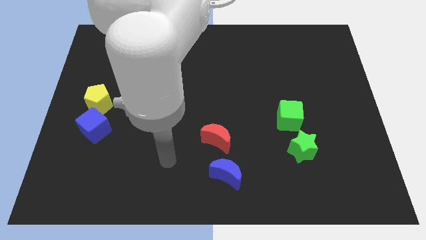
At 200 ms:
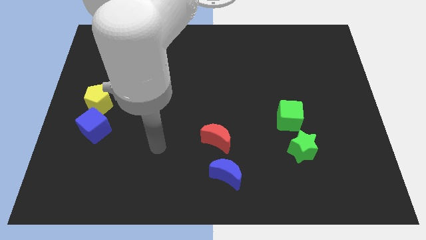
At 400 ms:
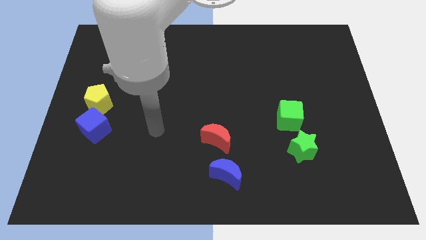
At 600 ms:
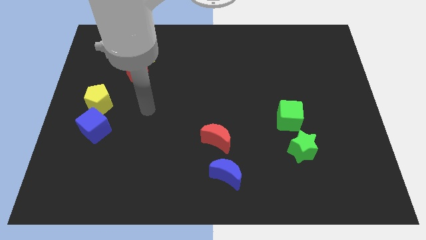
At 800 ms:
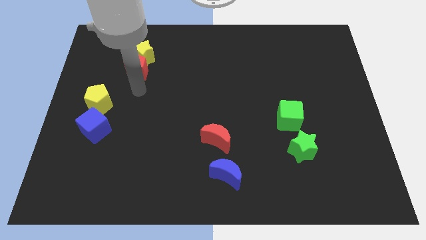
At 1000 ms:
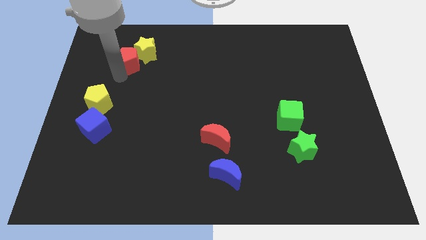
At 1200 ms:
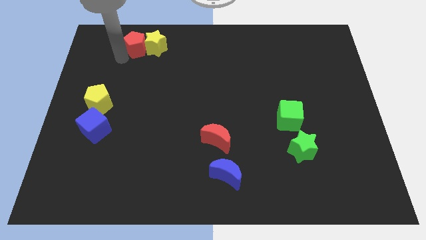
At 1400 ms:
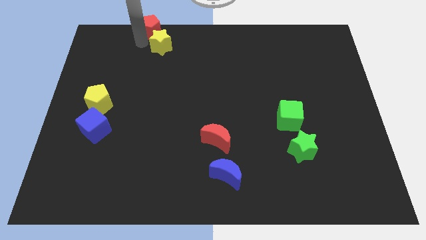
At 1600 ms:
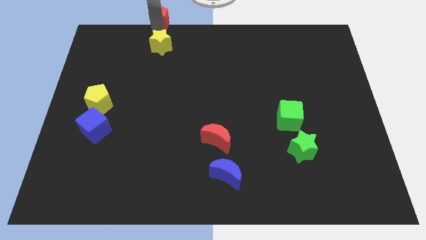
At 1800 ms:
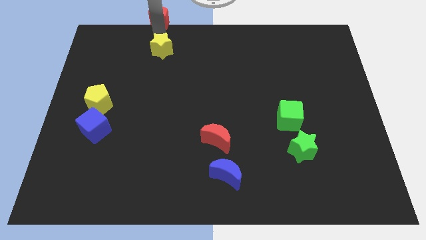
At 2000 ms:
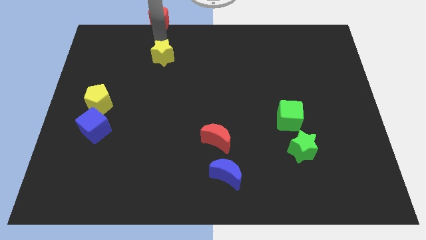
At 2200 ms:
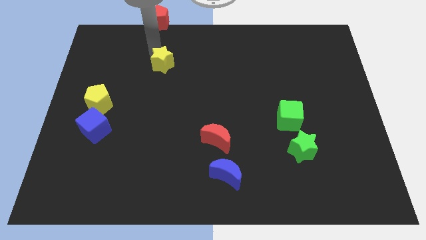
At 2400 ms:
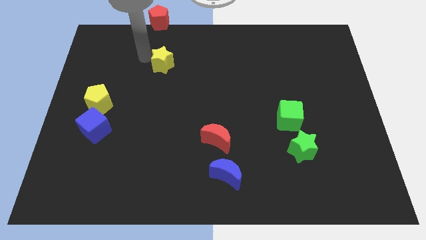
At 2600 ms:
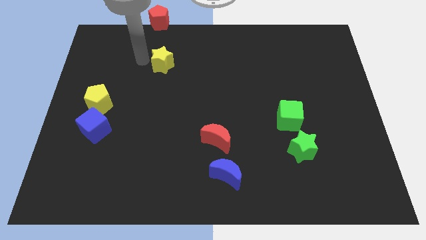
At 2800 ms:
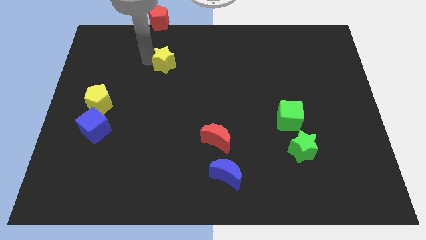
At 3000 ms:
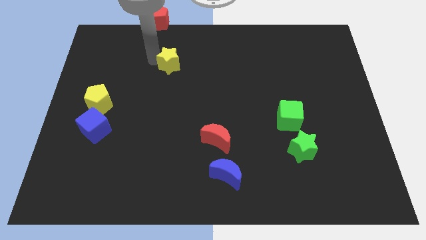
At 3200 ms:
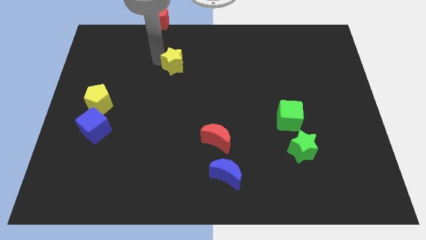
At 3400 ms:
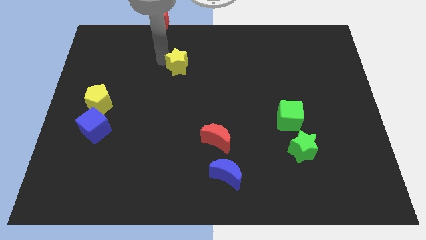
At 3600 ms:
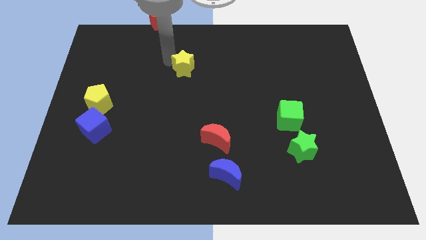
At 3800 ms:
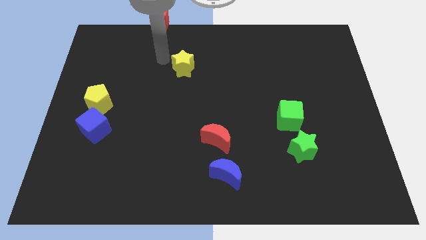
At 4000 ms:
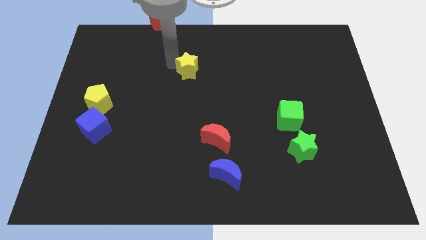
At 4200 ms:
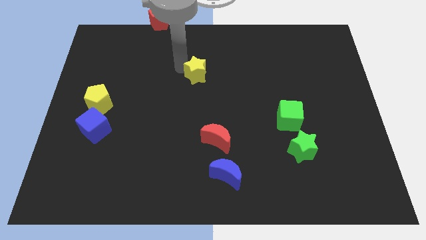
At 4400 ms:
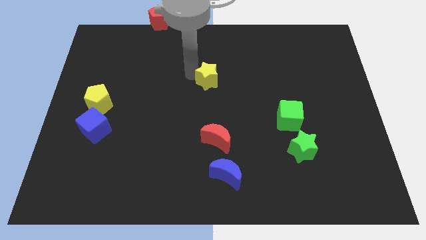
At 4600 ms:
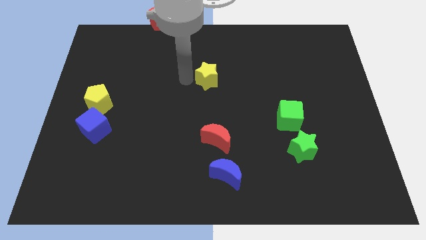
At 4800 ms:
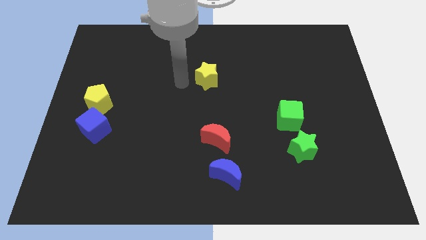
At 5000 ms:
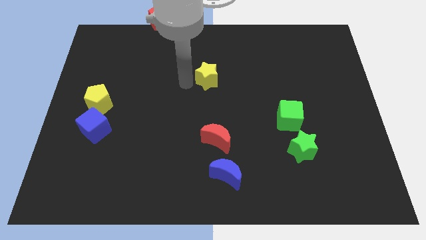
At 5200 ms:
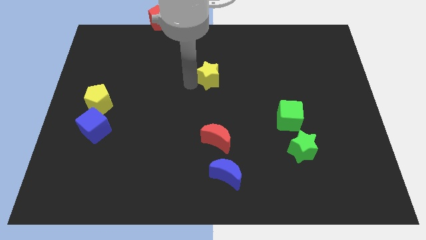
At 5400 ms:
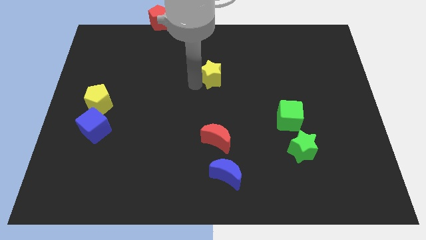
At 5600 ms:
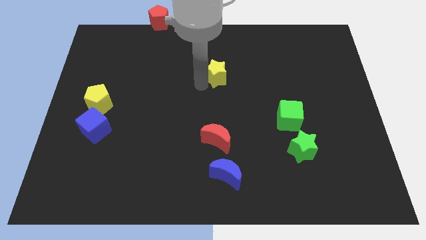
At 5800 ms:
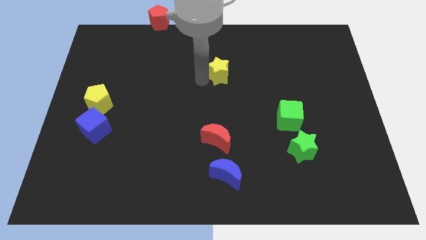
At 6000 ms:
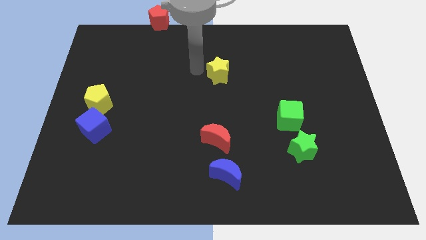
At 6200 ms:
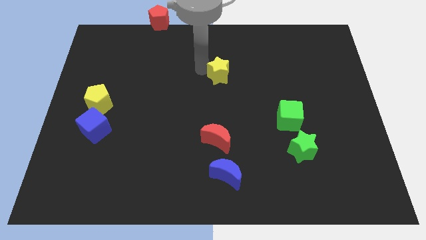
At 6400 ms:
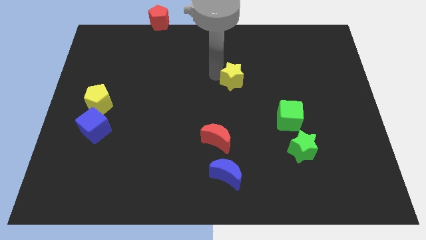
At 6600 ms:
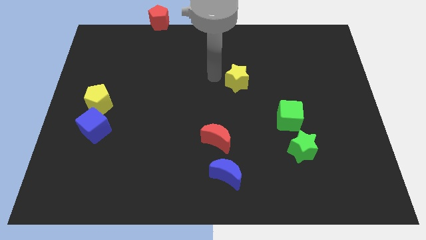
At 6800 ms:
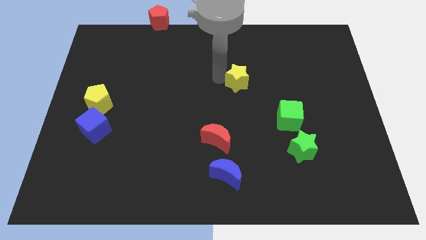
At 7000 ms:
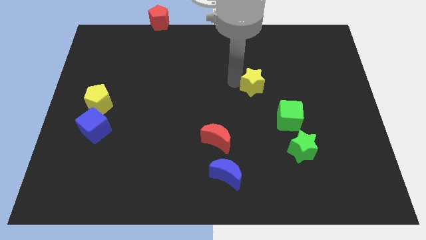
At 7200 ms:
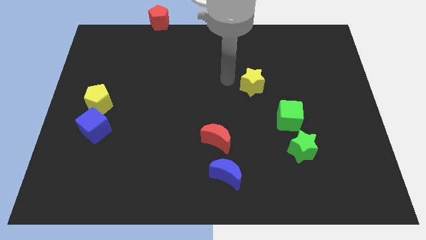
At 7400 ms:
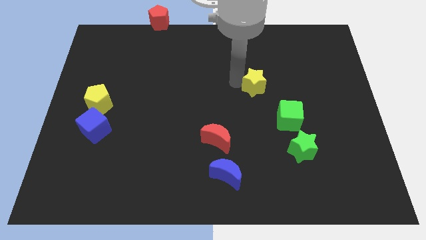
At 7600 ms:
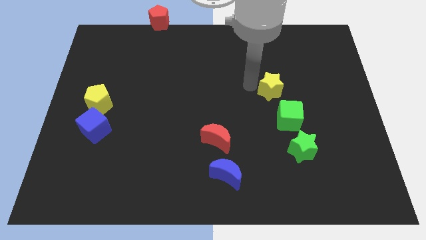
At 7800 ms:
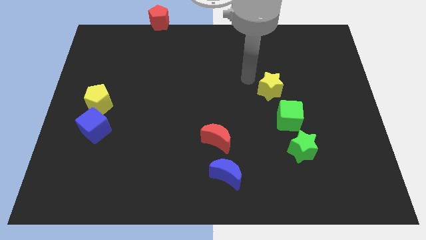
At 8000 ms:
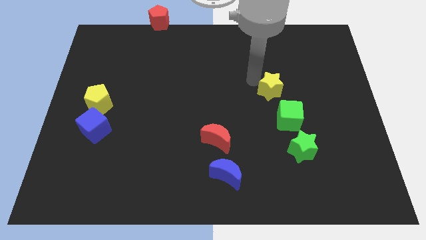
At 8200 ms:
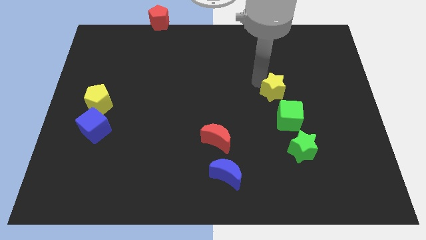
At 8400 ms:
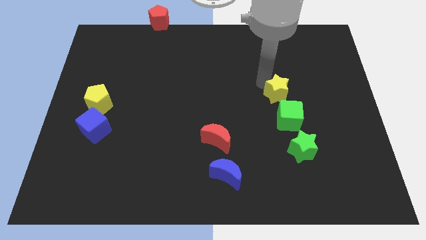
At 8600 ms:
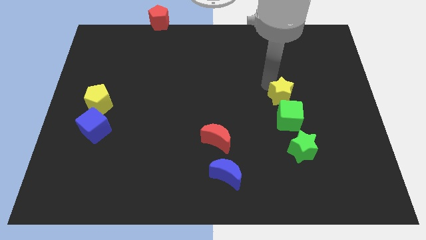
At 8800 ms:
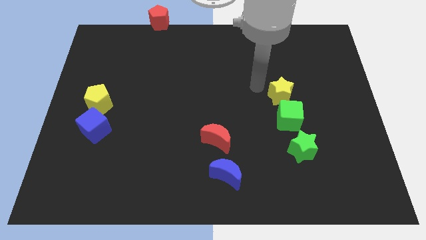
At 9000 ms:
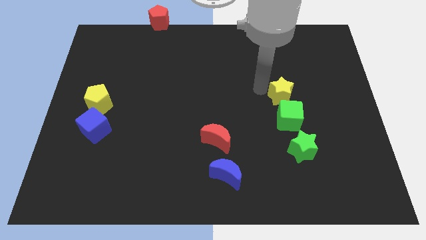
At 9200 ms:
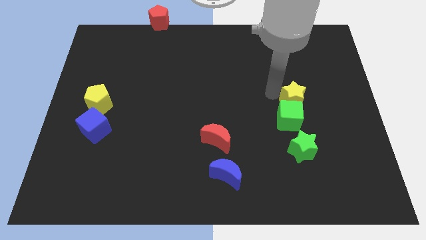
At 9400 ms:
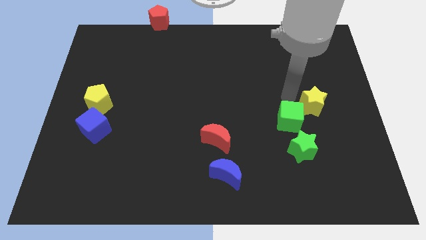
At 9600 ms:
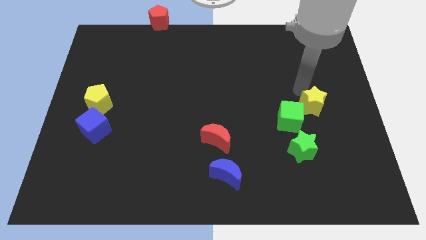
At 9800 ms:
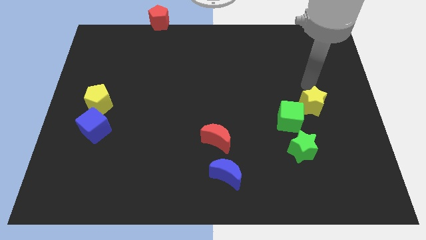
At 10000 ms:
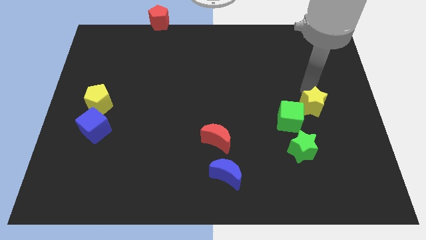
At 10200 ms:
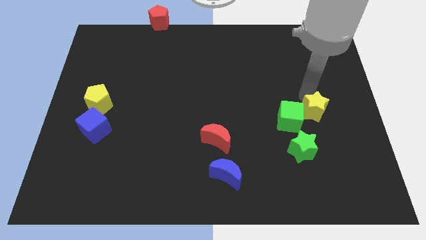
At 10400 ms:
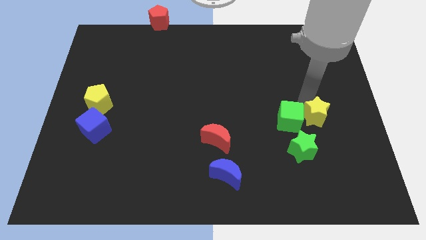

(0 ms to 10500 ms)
put the yellow star diagonally down and to the right of the green cube

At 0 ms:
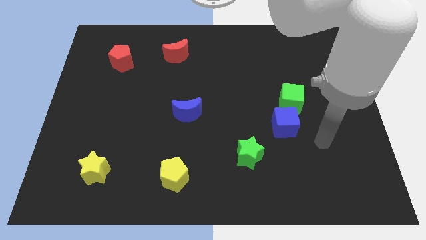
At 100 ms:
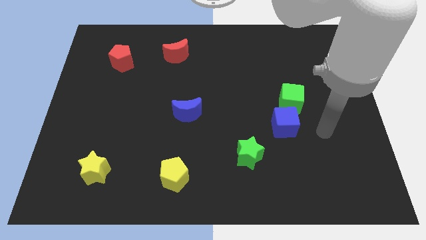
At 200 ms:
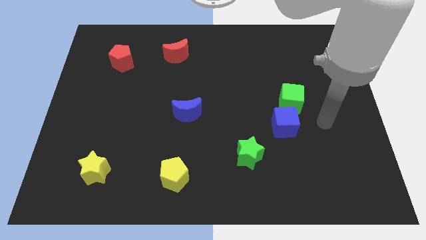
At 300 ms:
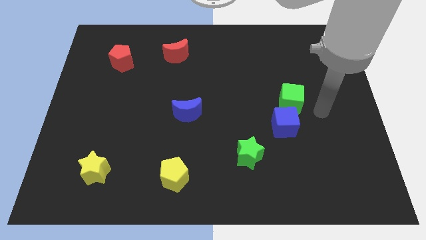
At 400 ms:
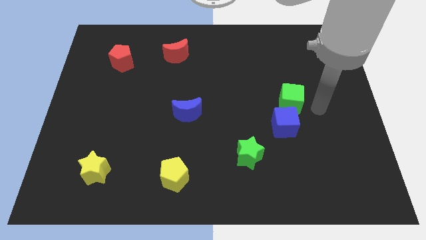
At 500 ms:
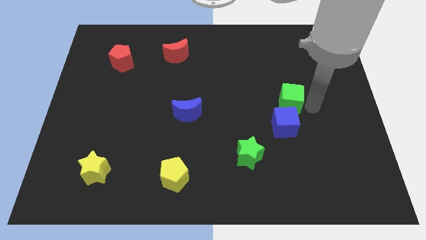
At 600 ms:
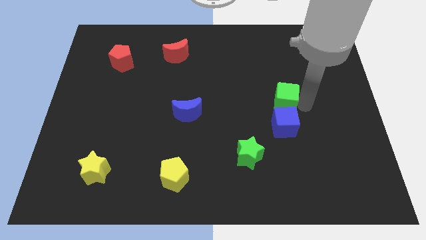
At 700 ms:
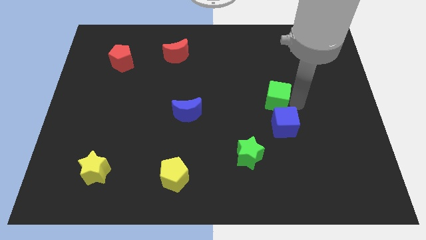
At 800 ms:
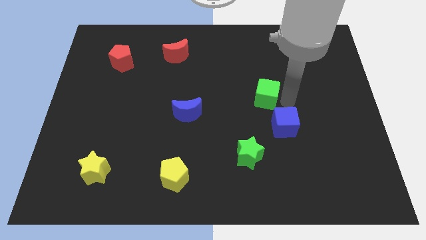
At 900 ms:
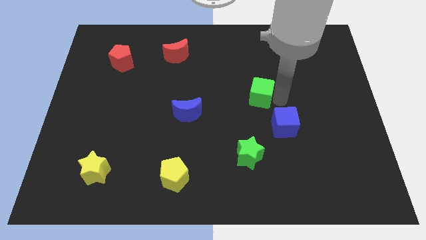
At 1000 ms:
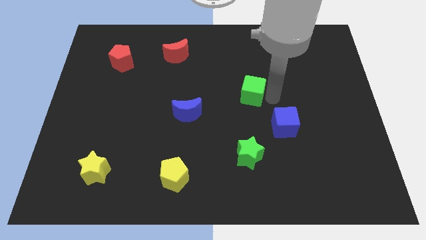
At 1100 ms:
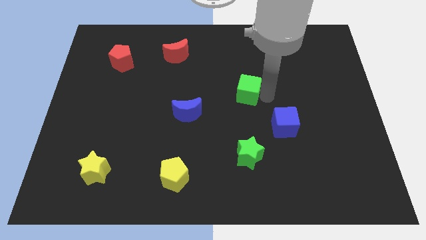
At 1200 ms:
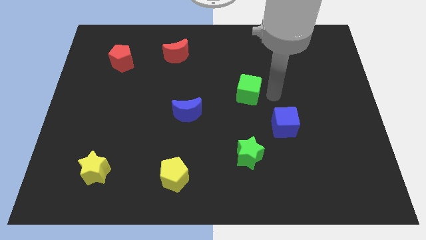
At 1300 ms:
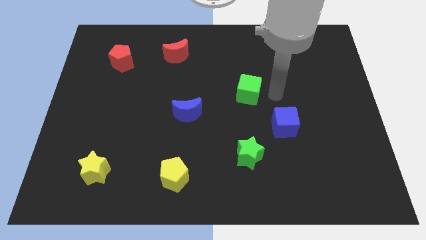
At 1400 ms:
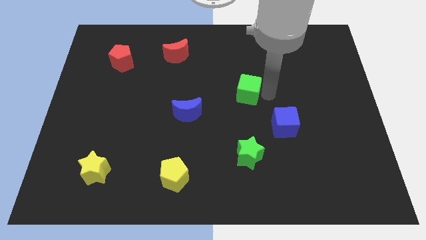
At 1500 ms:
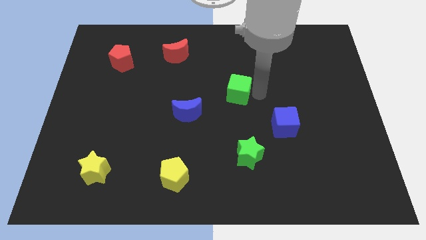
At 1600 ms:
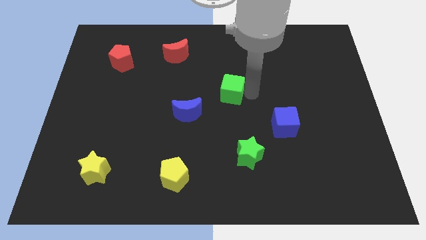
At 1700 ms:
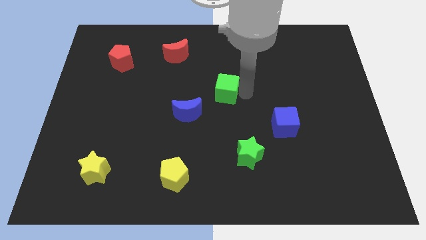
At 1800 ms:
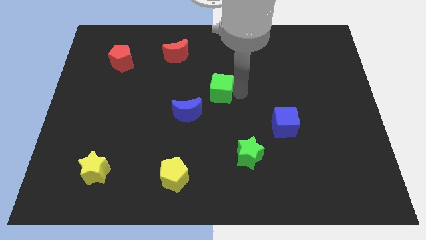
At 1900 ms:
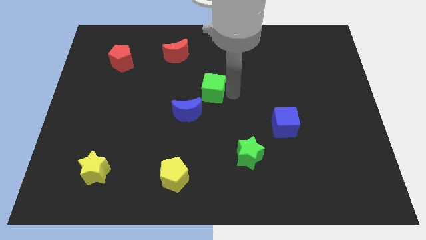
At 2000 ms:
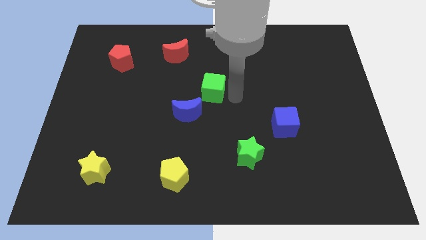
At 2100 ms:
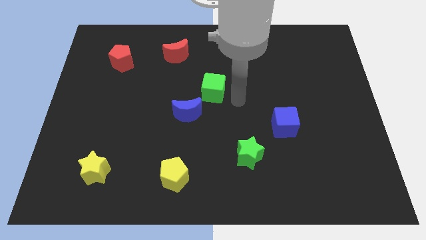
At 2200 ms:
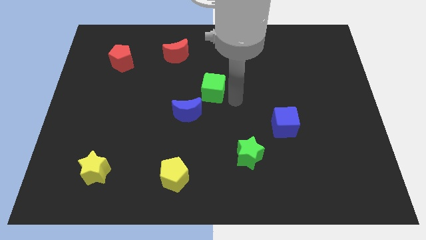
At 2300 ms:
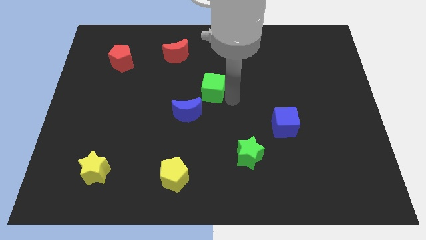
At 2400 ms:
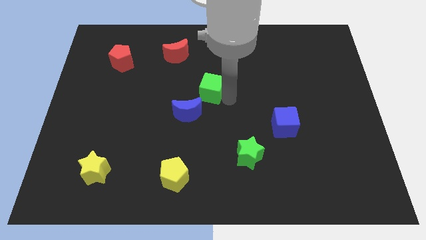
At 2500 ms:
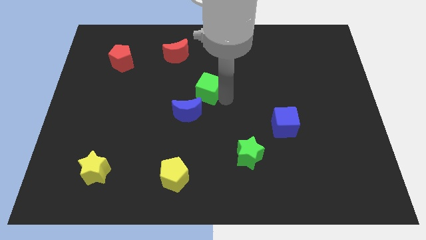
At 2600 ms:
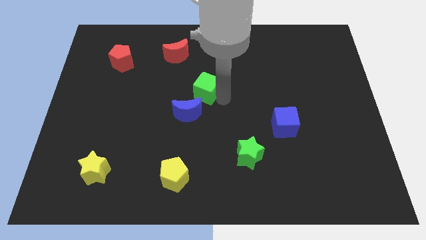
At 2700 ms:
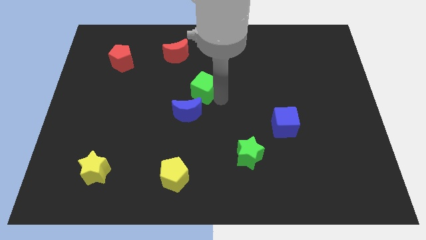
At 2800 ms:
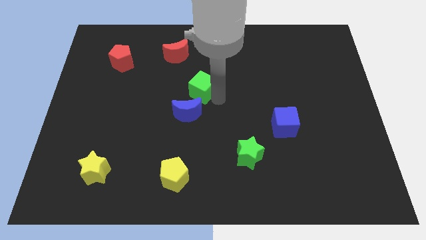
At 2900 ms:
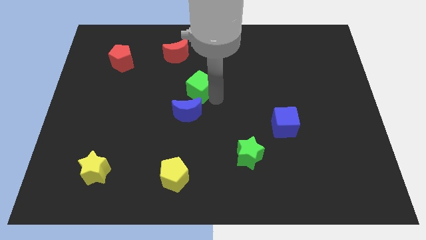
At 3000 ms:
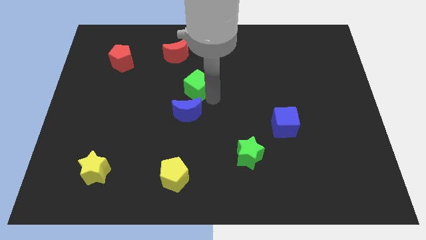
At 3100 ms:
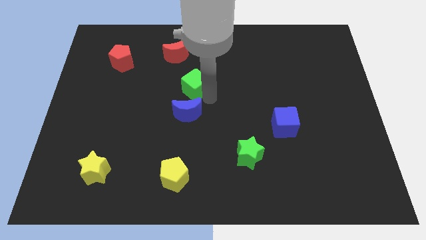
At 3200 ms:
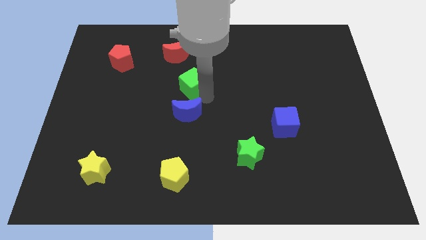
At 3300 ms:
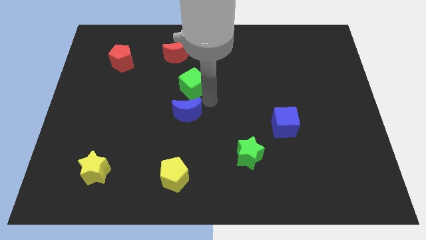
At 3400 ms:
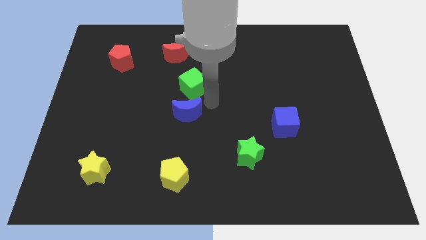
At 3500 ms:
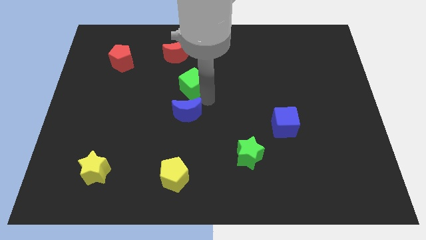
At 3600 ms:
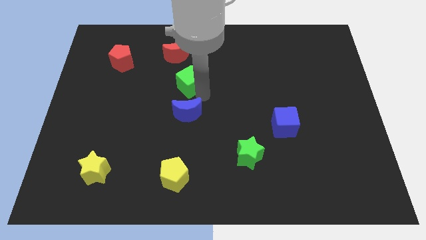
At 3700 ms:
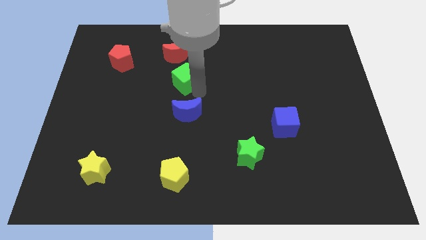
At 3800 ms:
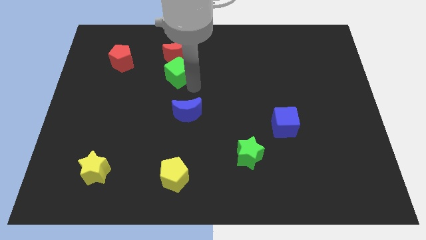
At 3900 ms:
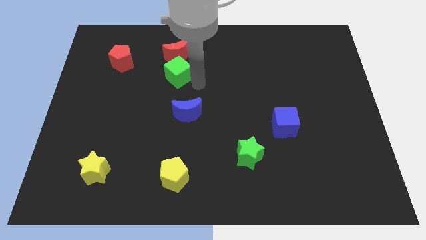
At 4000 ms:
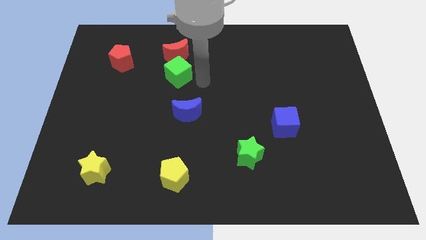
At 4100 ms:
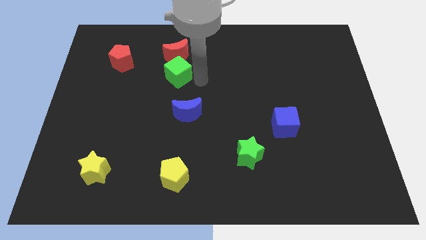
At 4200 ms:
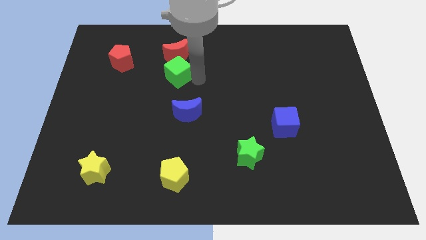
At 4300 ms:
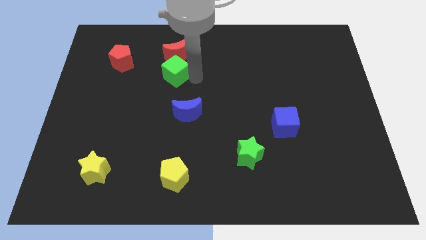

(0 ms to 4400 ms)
move the green cube to the bottom left side of the red moon
